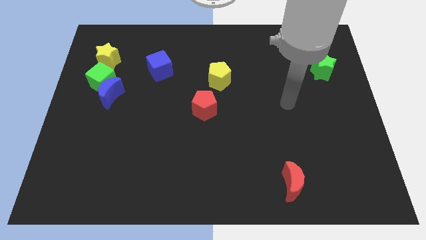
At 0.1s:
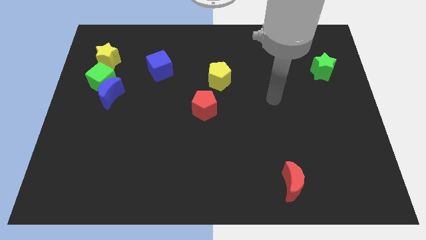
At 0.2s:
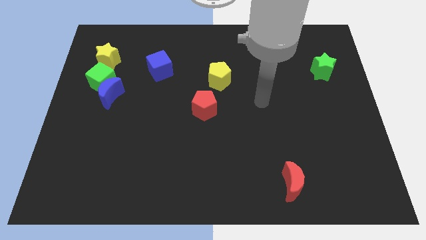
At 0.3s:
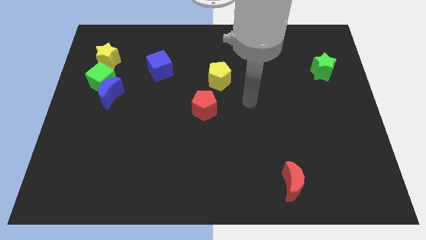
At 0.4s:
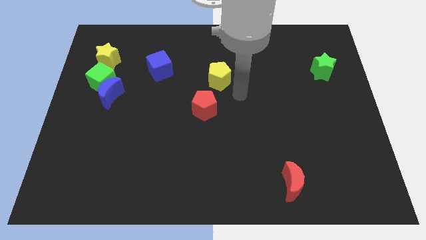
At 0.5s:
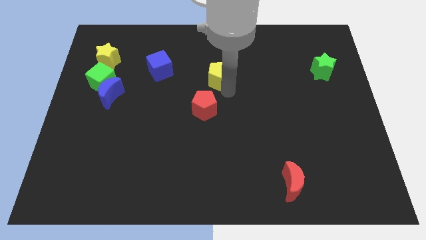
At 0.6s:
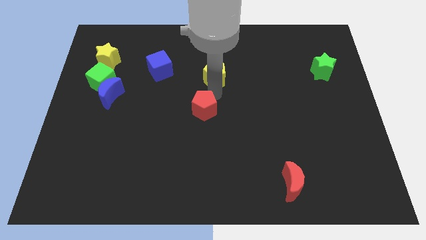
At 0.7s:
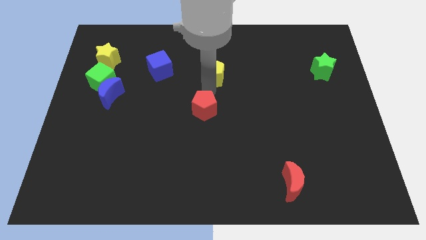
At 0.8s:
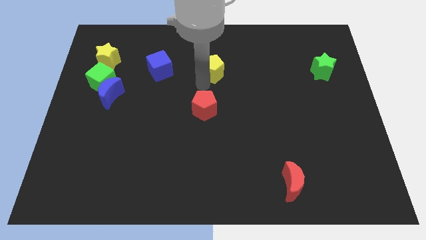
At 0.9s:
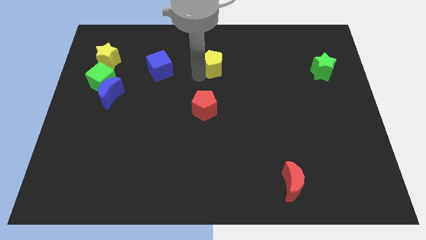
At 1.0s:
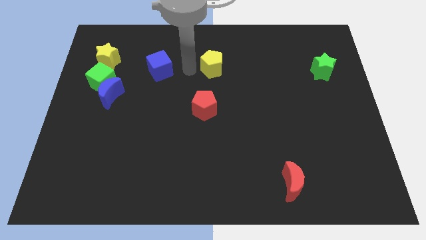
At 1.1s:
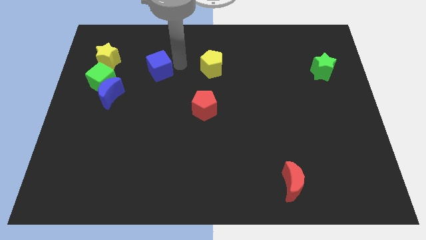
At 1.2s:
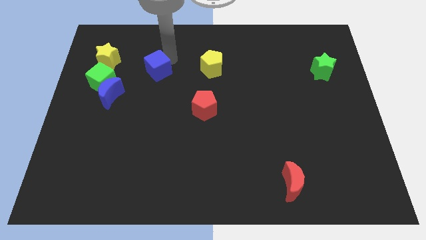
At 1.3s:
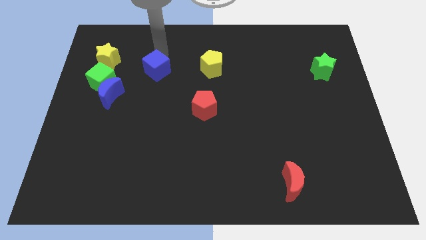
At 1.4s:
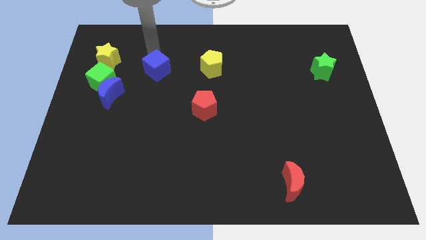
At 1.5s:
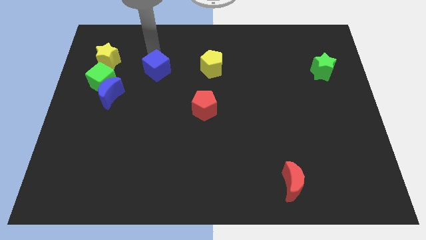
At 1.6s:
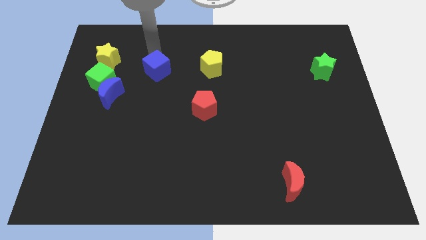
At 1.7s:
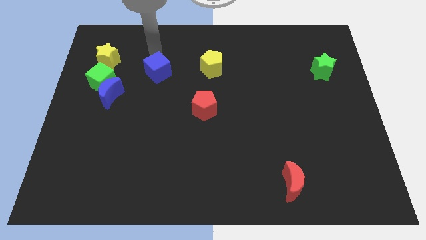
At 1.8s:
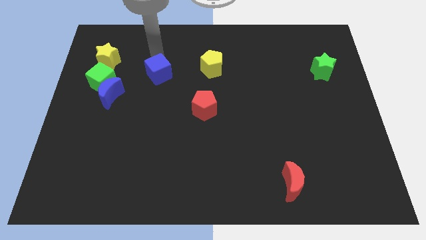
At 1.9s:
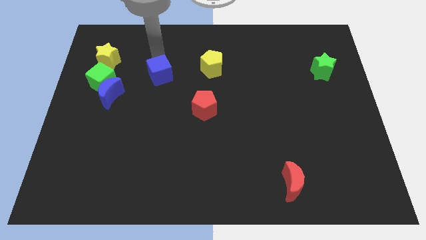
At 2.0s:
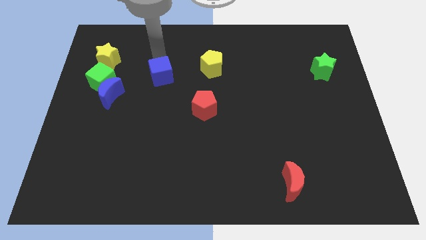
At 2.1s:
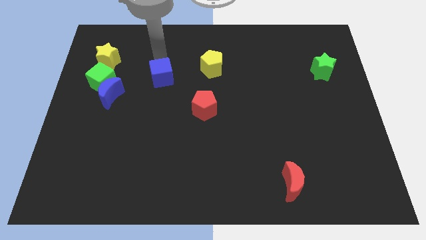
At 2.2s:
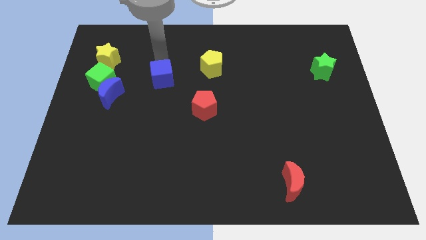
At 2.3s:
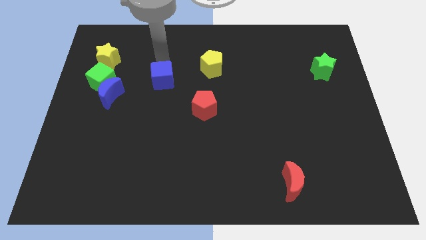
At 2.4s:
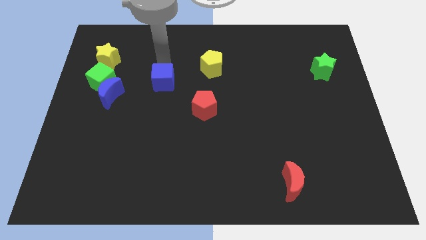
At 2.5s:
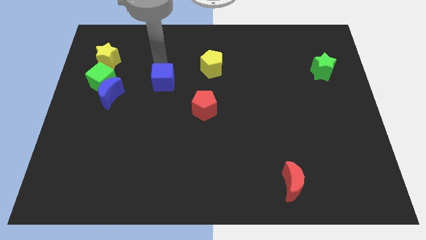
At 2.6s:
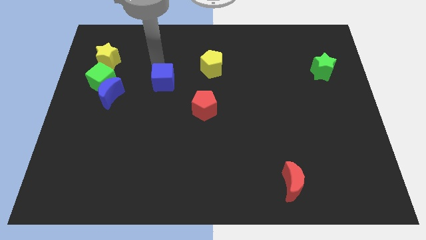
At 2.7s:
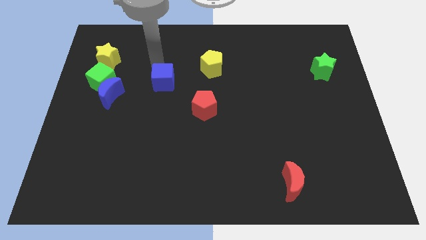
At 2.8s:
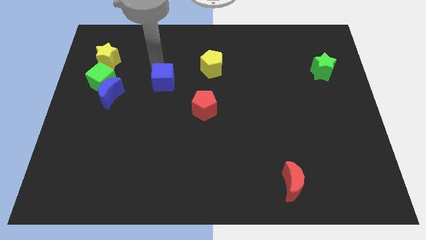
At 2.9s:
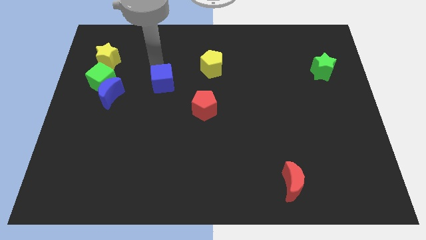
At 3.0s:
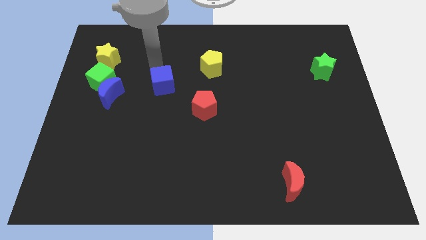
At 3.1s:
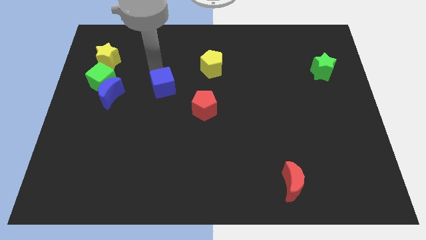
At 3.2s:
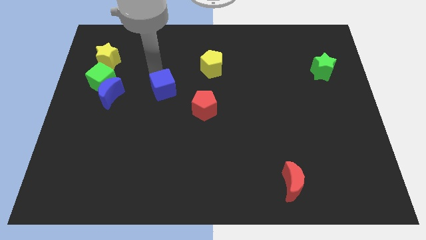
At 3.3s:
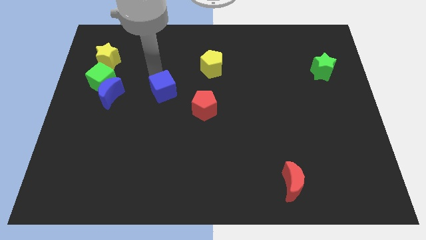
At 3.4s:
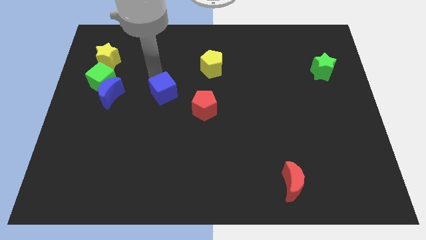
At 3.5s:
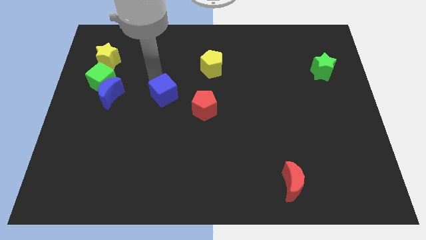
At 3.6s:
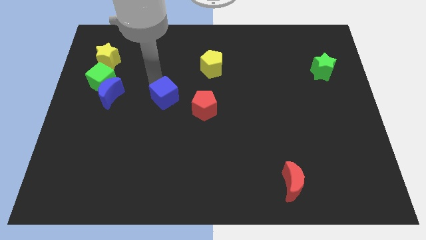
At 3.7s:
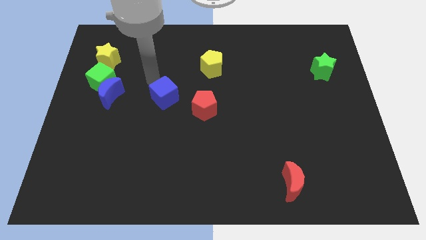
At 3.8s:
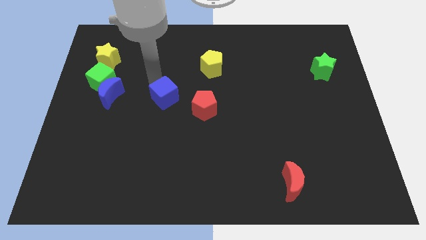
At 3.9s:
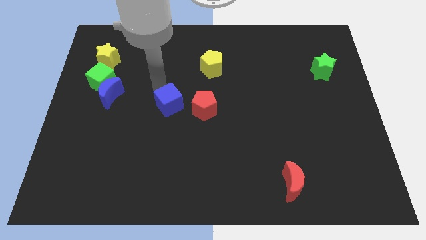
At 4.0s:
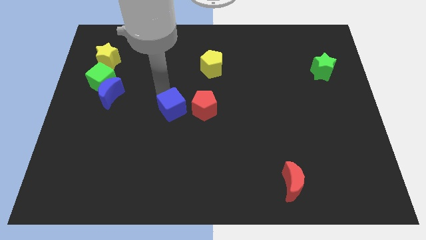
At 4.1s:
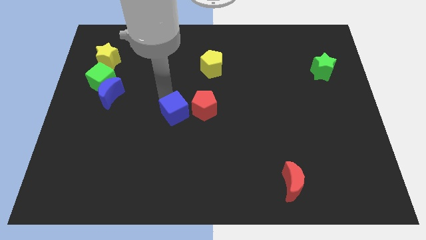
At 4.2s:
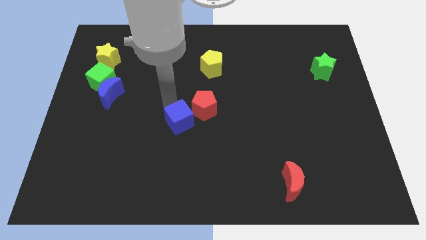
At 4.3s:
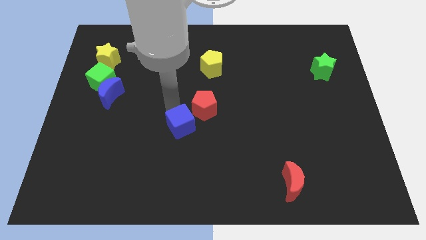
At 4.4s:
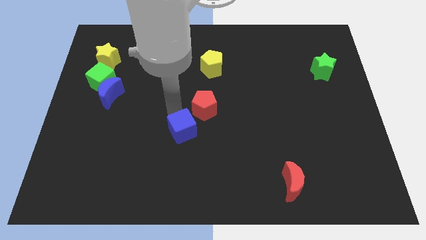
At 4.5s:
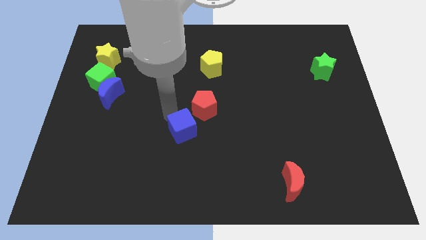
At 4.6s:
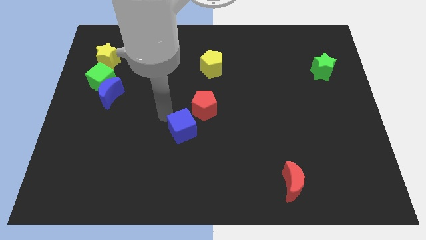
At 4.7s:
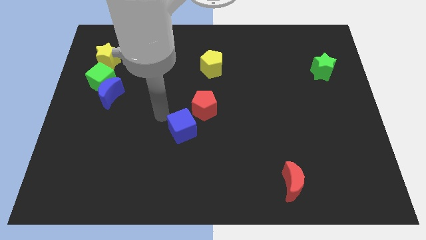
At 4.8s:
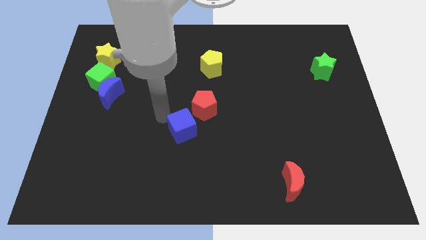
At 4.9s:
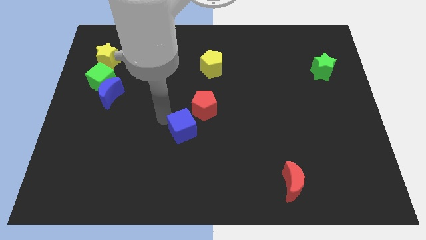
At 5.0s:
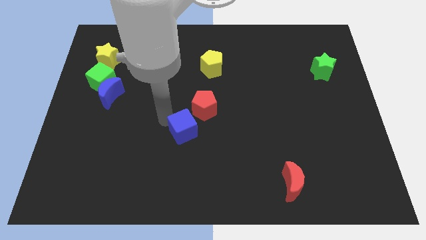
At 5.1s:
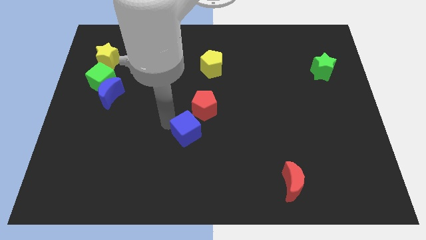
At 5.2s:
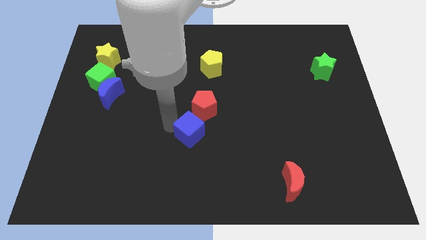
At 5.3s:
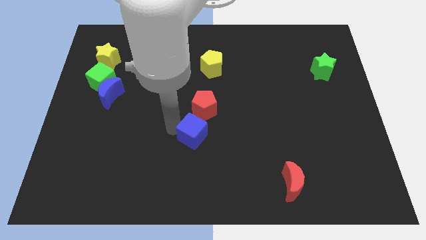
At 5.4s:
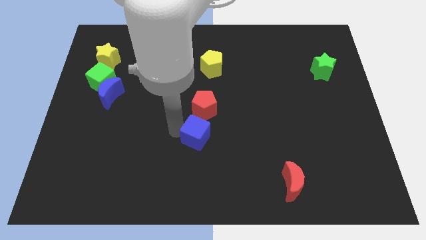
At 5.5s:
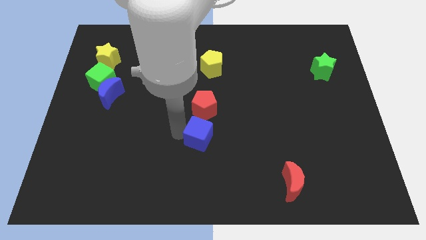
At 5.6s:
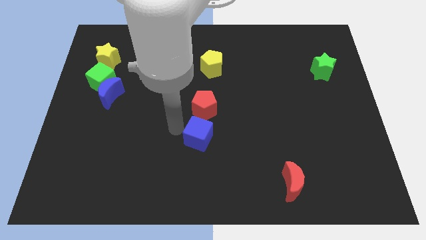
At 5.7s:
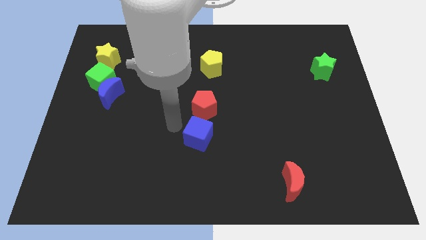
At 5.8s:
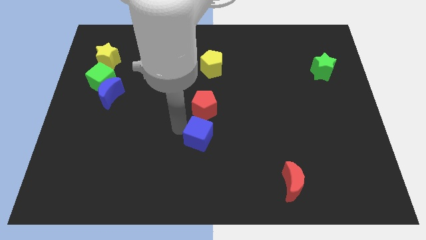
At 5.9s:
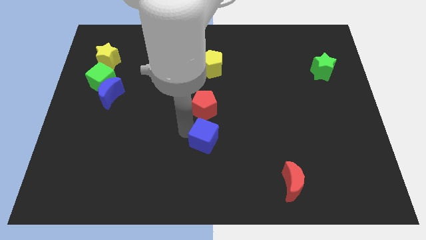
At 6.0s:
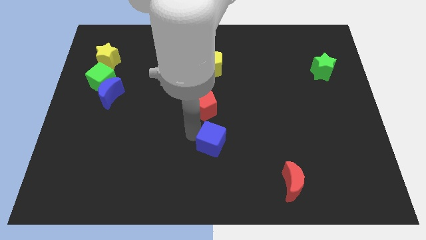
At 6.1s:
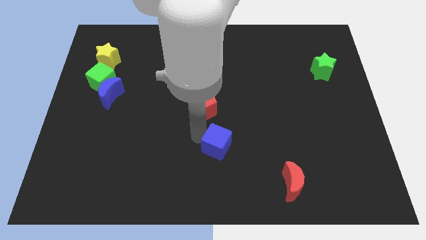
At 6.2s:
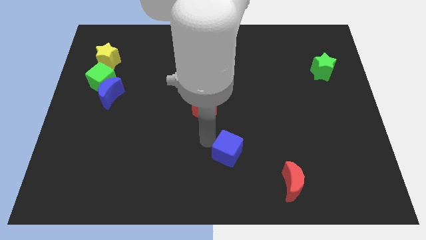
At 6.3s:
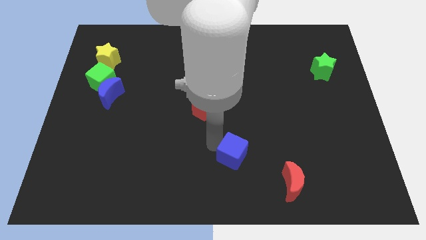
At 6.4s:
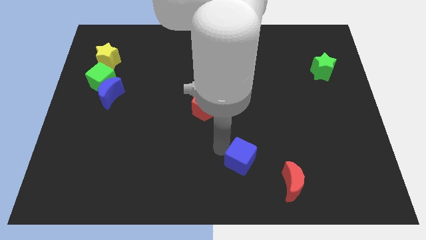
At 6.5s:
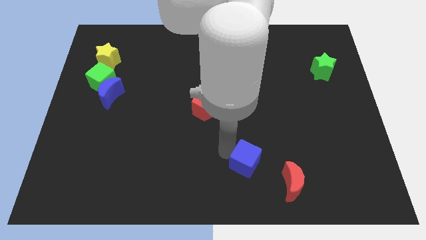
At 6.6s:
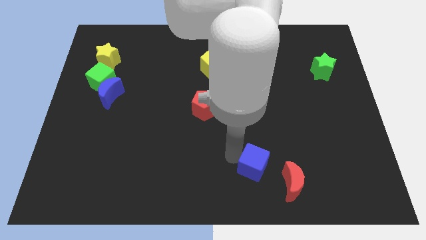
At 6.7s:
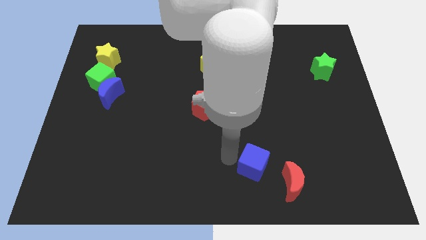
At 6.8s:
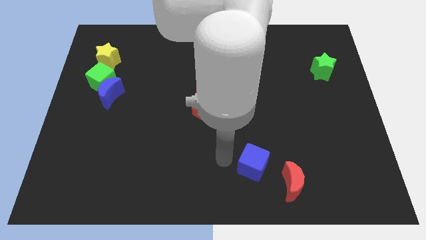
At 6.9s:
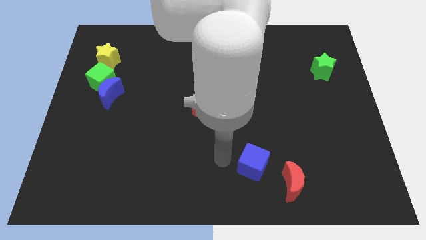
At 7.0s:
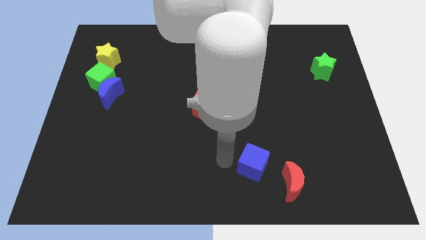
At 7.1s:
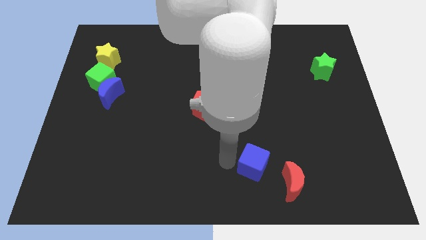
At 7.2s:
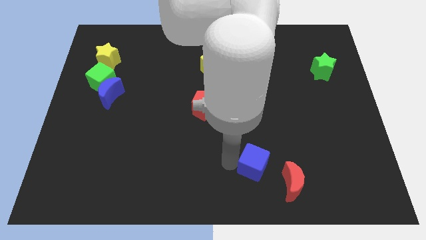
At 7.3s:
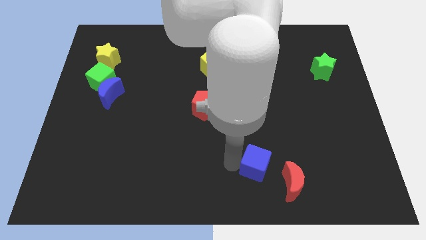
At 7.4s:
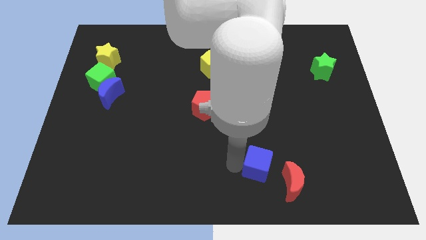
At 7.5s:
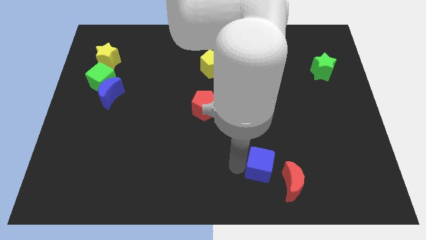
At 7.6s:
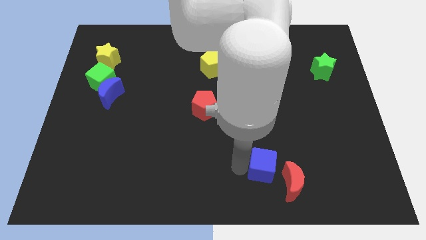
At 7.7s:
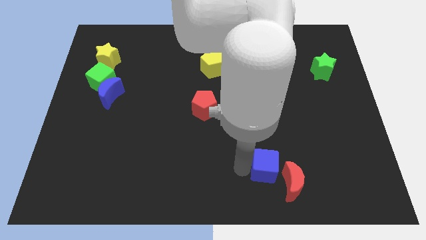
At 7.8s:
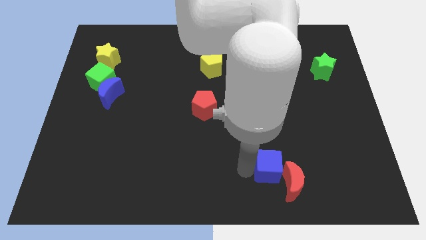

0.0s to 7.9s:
put the blue cube next to the red moon
